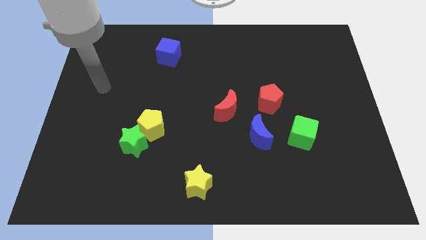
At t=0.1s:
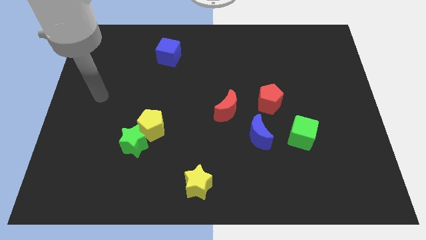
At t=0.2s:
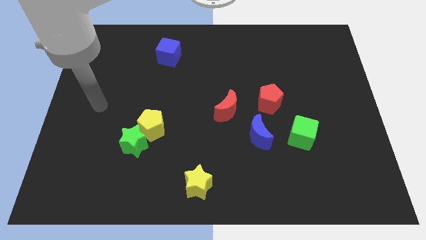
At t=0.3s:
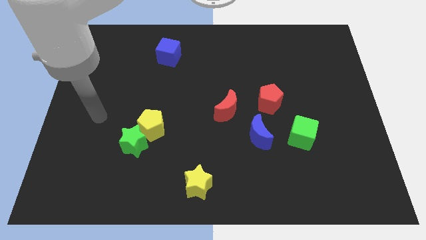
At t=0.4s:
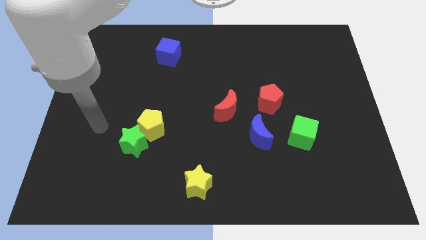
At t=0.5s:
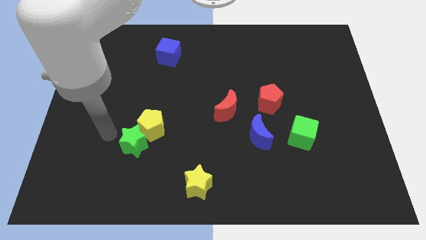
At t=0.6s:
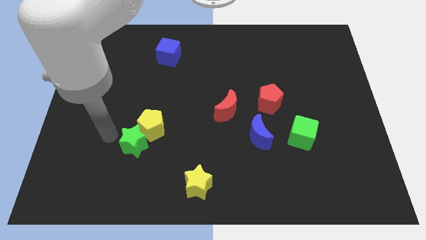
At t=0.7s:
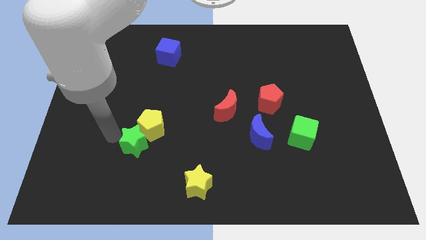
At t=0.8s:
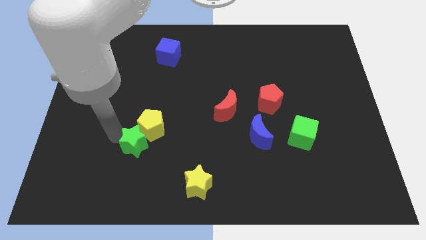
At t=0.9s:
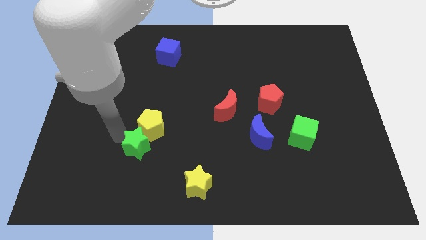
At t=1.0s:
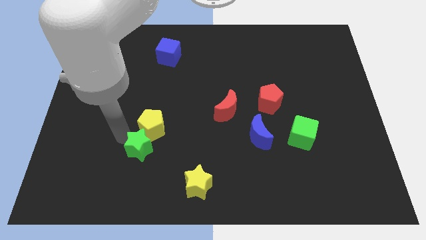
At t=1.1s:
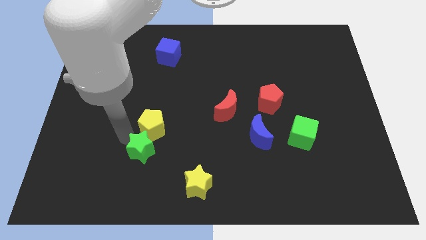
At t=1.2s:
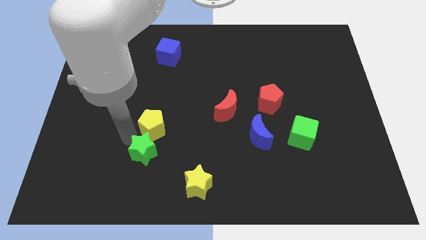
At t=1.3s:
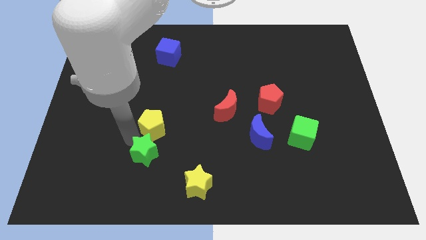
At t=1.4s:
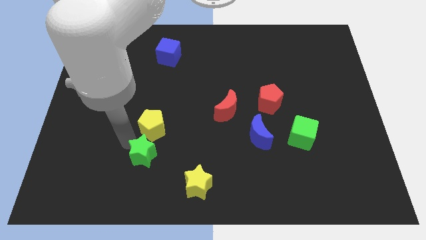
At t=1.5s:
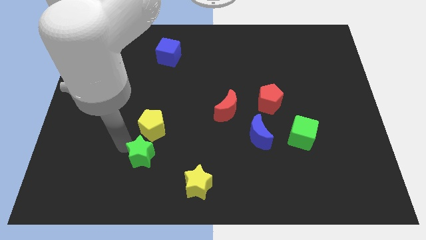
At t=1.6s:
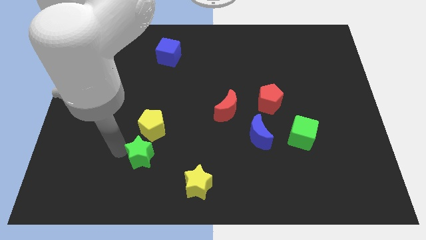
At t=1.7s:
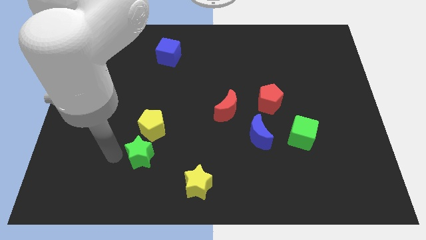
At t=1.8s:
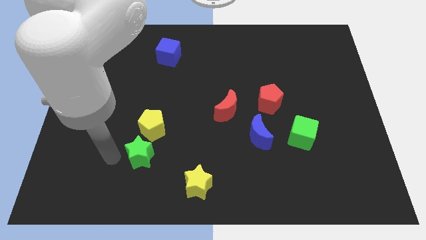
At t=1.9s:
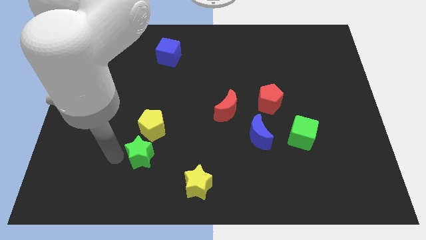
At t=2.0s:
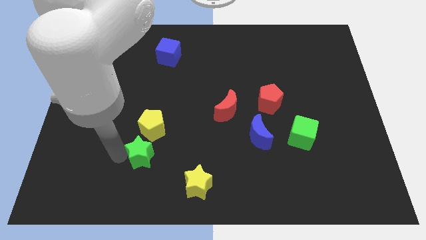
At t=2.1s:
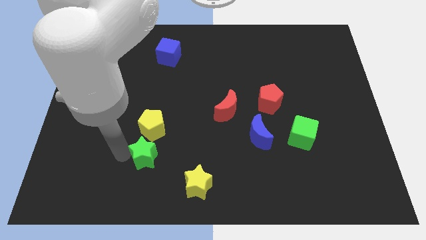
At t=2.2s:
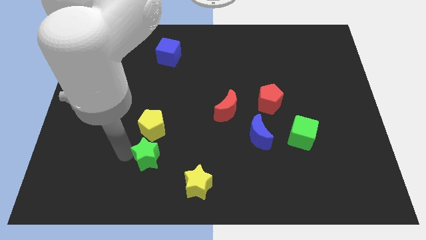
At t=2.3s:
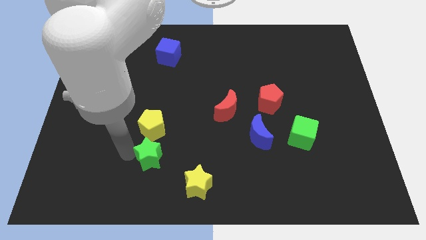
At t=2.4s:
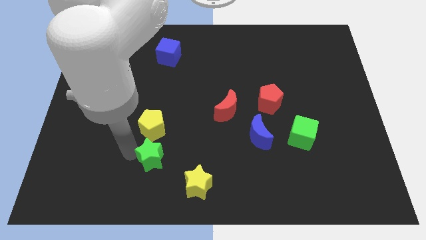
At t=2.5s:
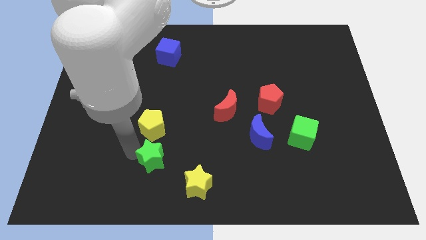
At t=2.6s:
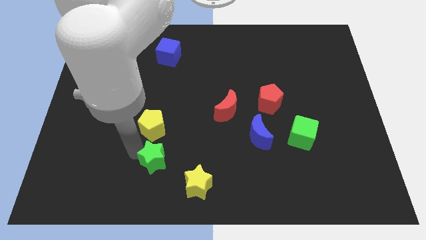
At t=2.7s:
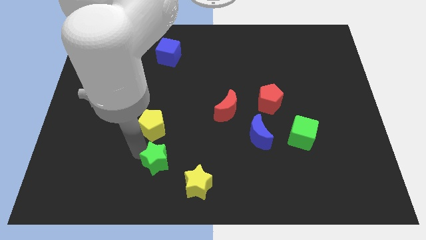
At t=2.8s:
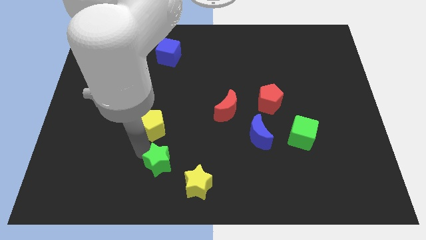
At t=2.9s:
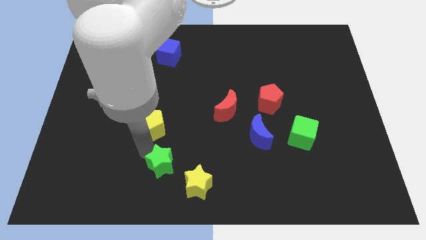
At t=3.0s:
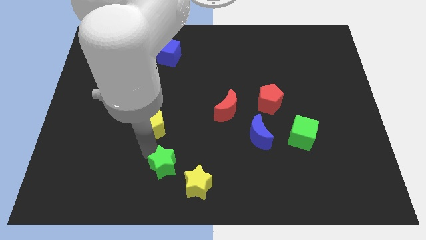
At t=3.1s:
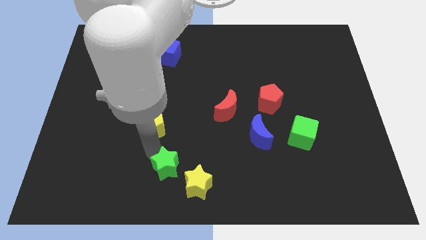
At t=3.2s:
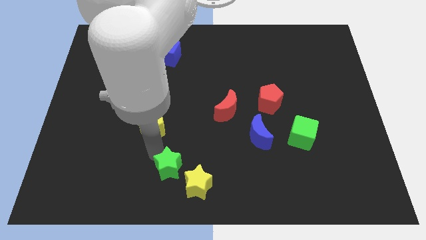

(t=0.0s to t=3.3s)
slightly move the green star to the right

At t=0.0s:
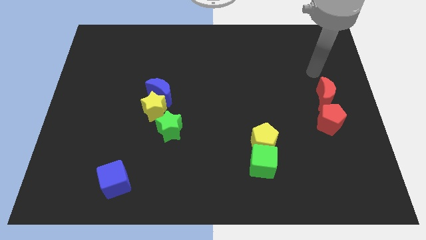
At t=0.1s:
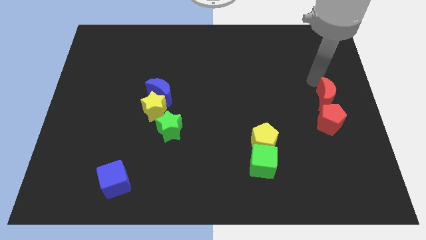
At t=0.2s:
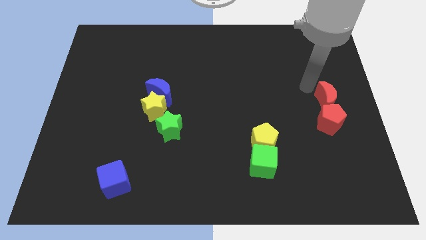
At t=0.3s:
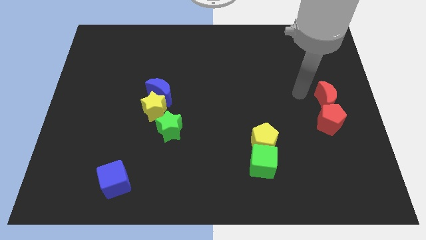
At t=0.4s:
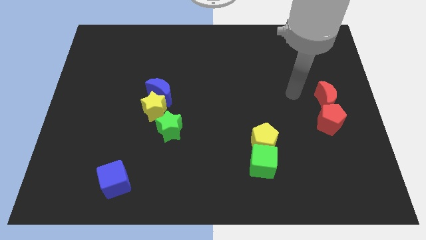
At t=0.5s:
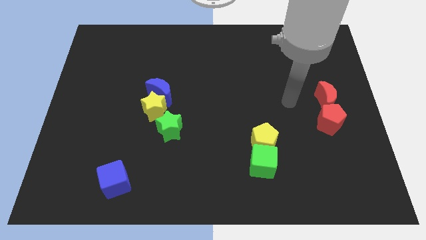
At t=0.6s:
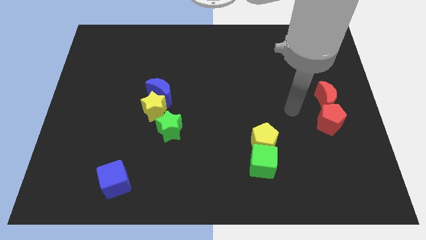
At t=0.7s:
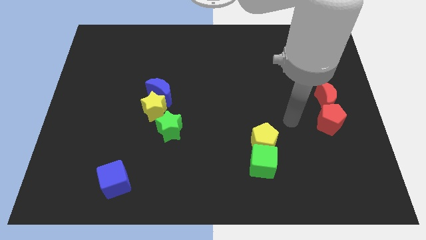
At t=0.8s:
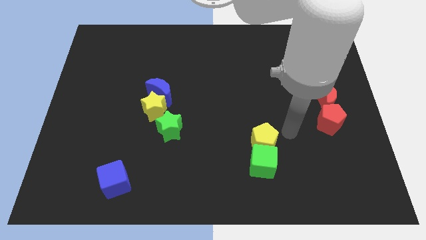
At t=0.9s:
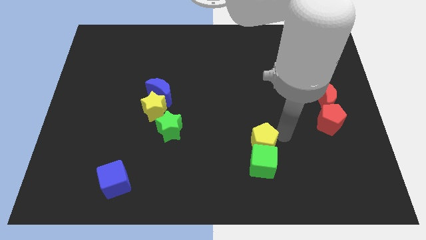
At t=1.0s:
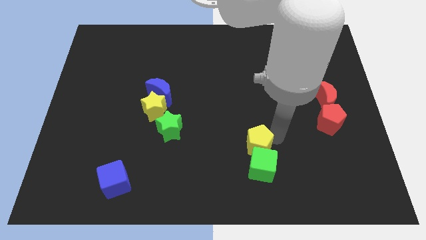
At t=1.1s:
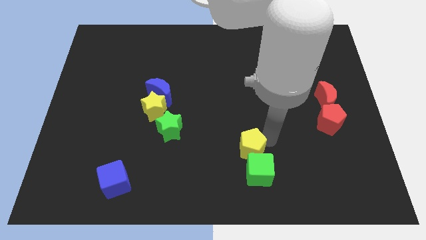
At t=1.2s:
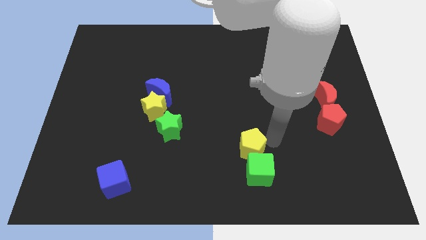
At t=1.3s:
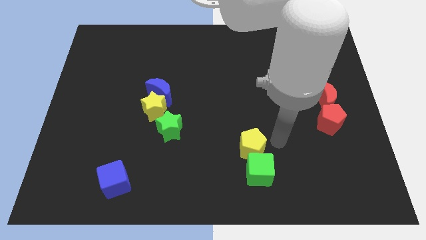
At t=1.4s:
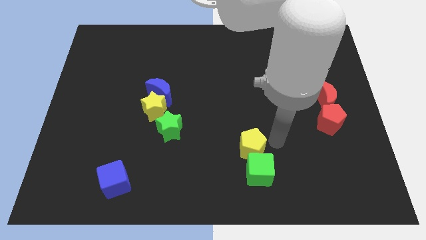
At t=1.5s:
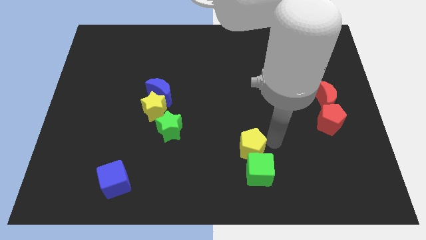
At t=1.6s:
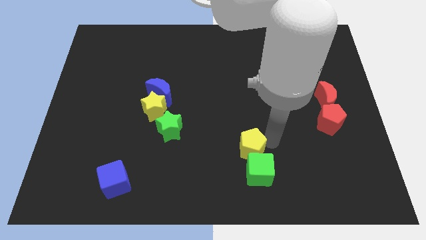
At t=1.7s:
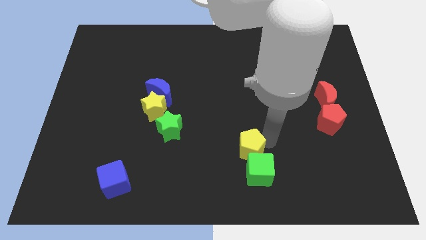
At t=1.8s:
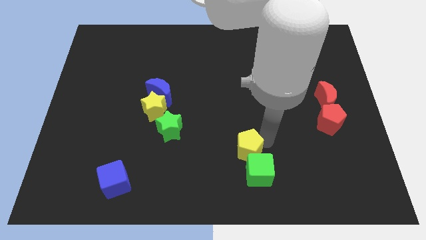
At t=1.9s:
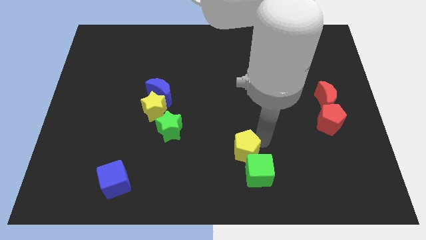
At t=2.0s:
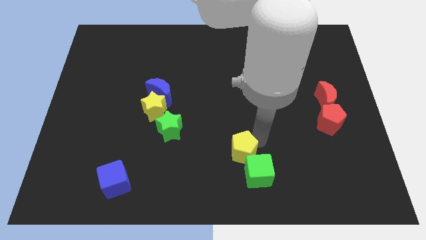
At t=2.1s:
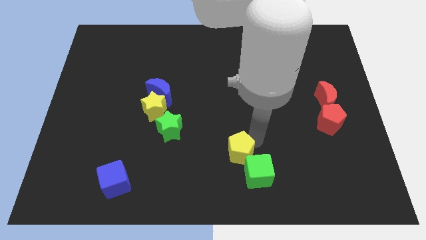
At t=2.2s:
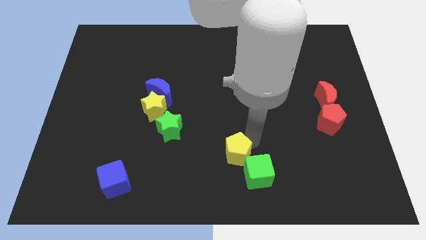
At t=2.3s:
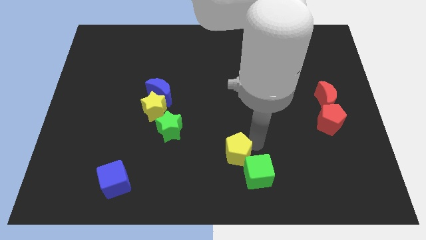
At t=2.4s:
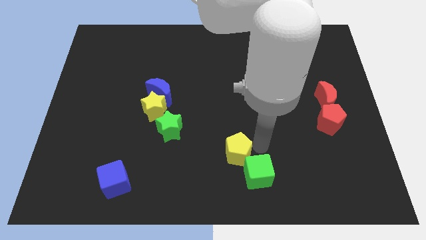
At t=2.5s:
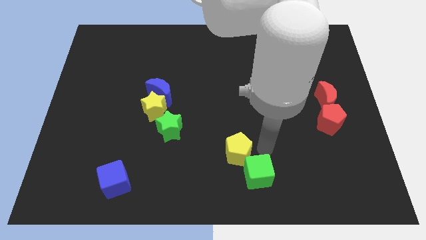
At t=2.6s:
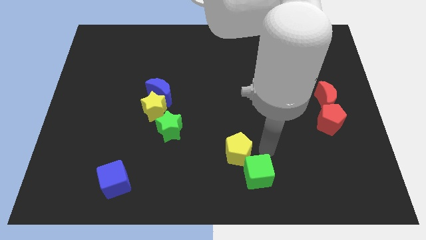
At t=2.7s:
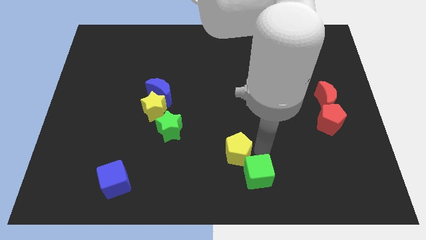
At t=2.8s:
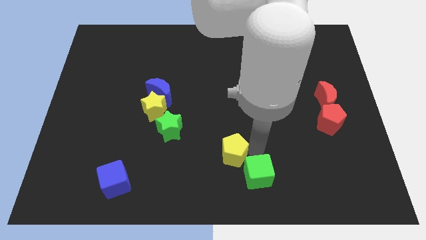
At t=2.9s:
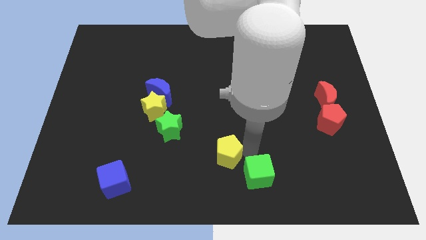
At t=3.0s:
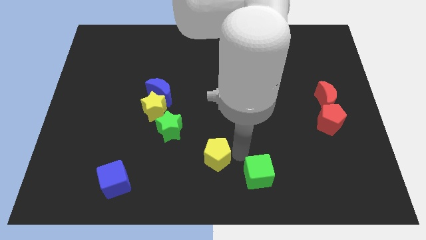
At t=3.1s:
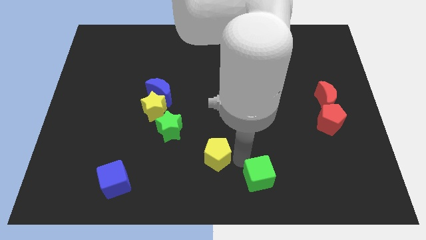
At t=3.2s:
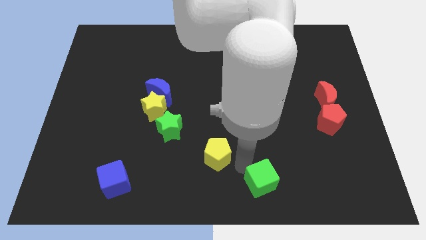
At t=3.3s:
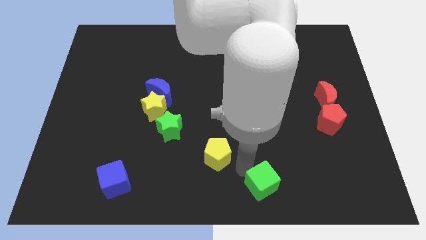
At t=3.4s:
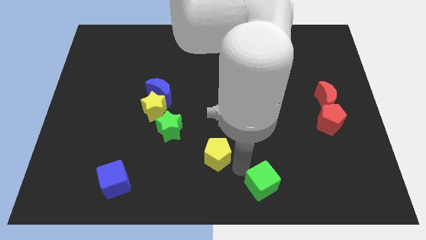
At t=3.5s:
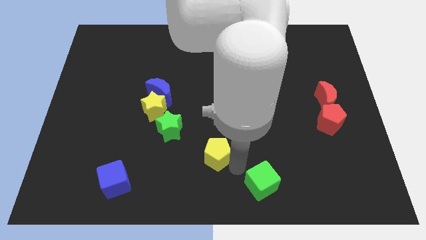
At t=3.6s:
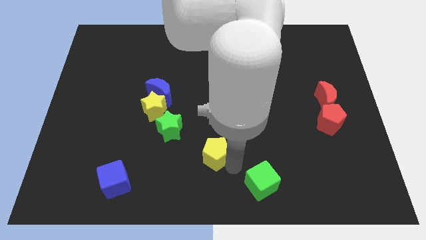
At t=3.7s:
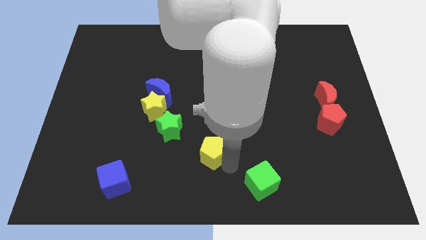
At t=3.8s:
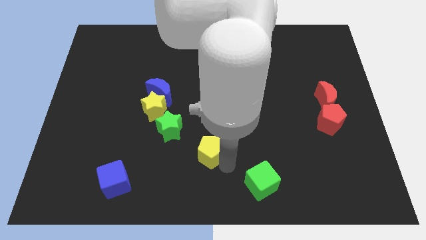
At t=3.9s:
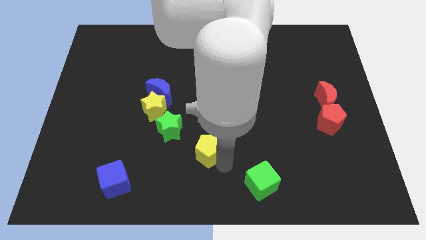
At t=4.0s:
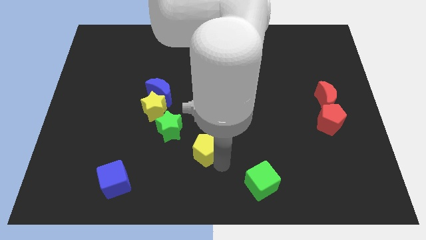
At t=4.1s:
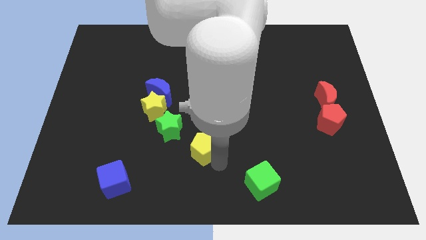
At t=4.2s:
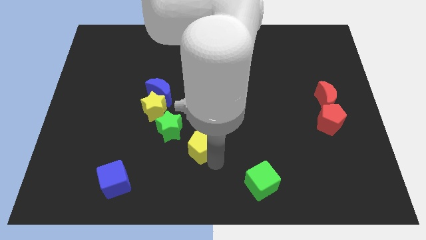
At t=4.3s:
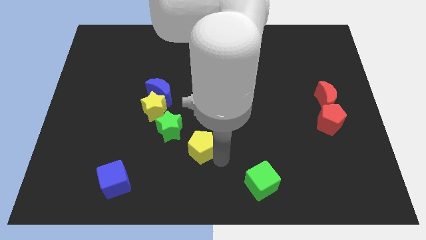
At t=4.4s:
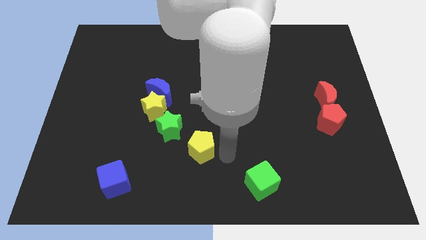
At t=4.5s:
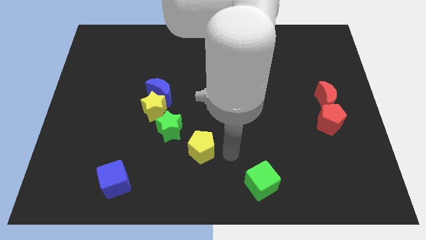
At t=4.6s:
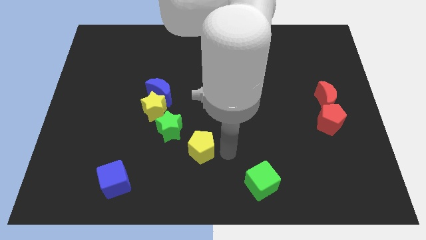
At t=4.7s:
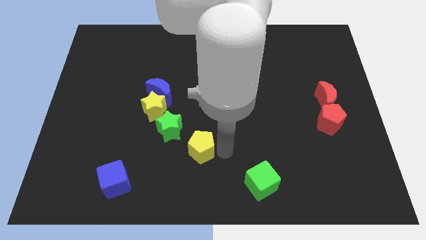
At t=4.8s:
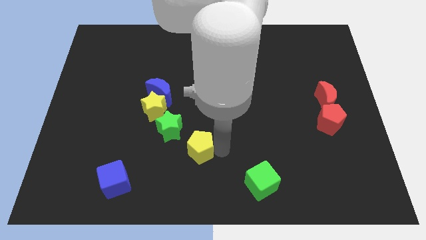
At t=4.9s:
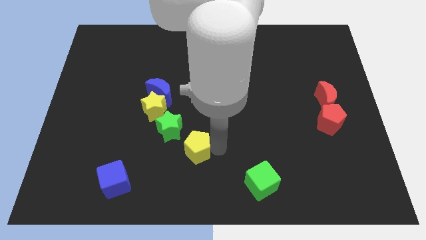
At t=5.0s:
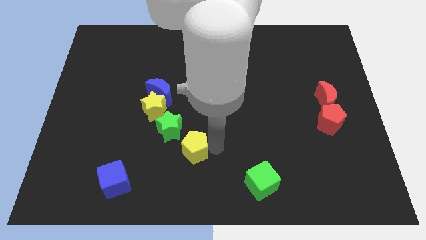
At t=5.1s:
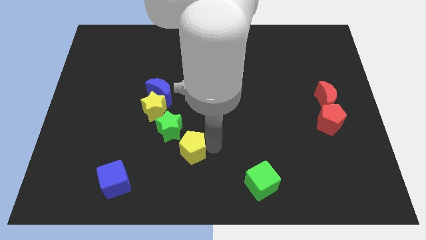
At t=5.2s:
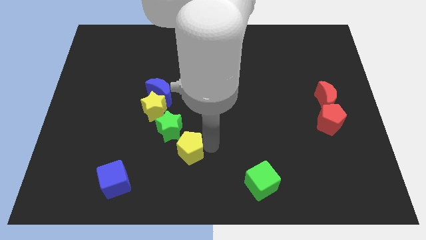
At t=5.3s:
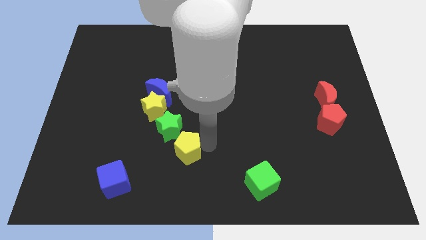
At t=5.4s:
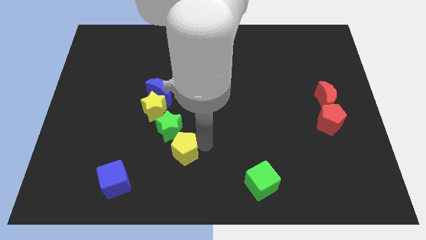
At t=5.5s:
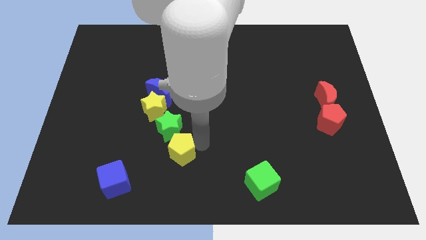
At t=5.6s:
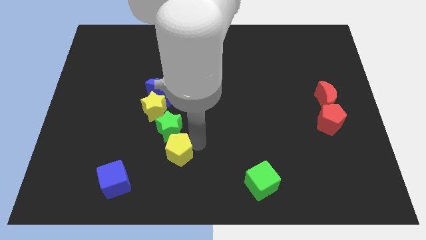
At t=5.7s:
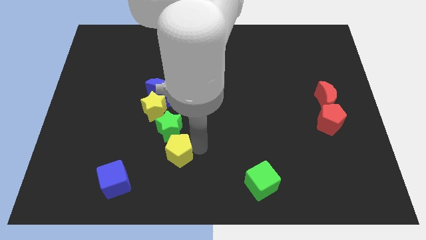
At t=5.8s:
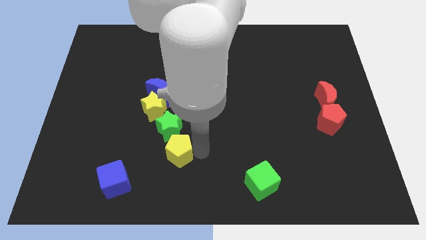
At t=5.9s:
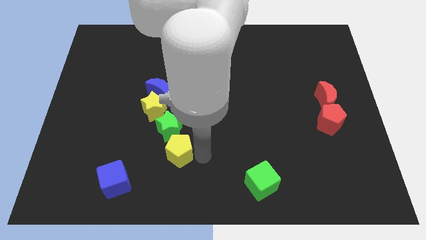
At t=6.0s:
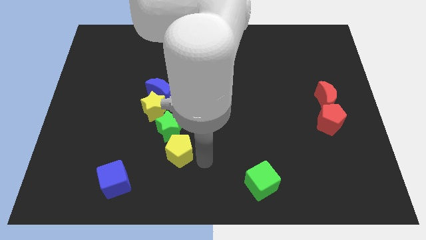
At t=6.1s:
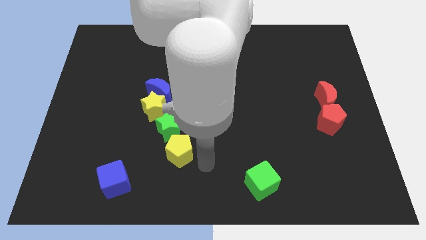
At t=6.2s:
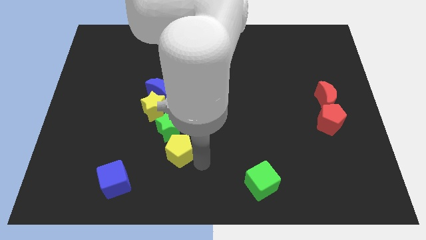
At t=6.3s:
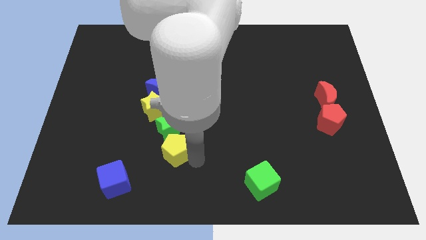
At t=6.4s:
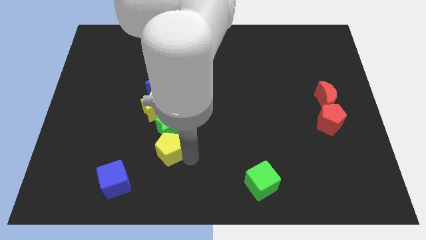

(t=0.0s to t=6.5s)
push the yellow pentagon to the left
